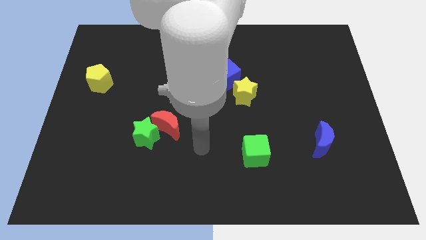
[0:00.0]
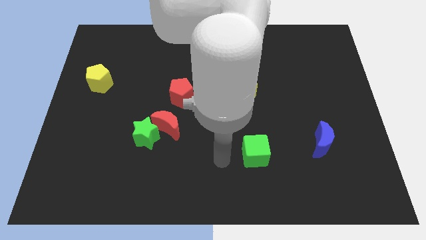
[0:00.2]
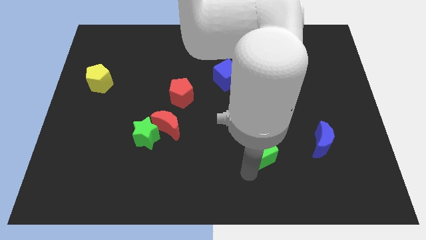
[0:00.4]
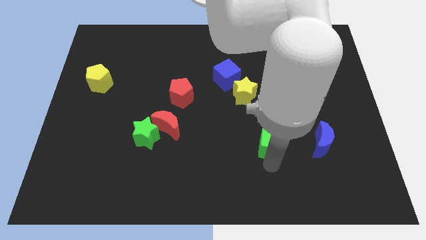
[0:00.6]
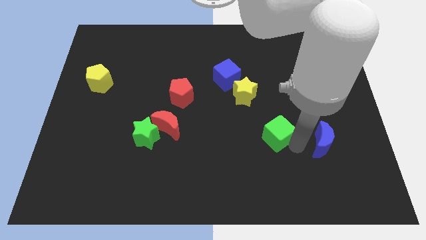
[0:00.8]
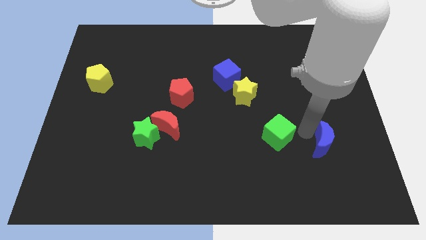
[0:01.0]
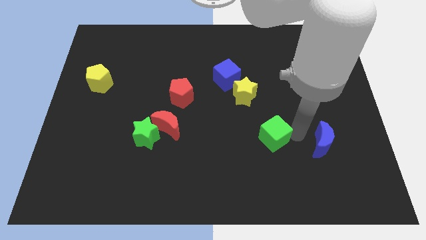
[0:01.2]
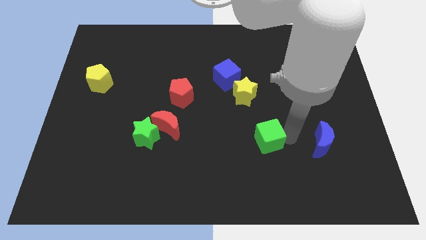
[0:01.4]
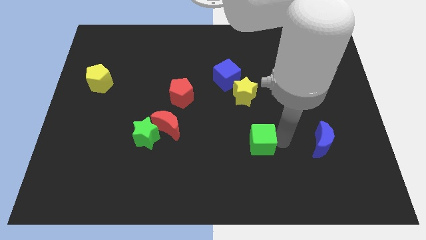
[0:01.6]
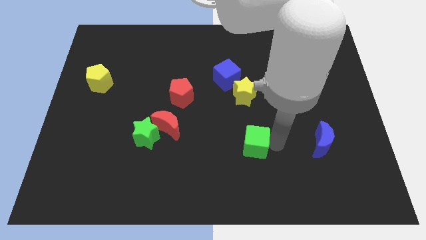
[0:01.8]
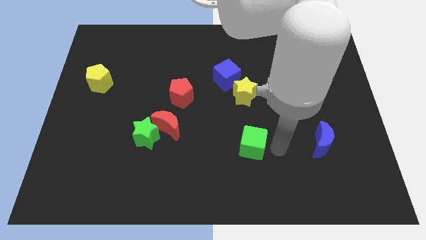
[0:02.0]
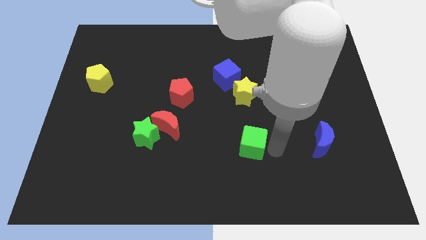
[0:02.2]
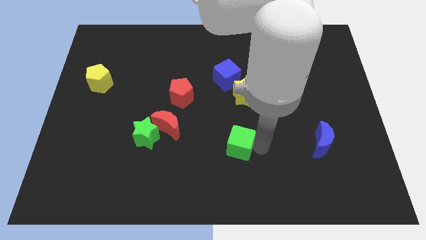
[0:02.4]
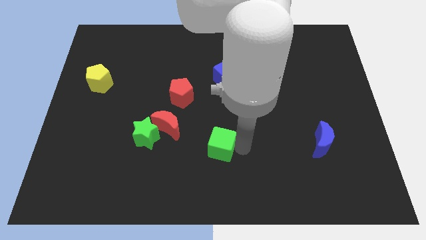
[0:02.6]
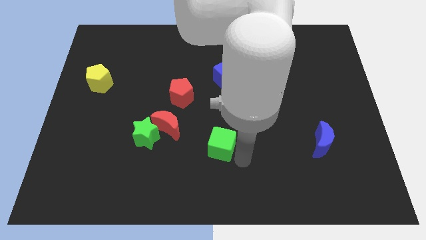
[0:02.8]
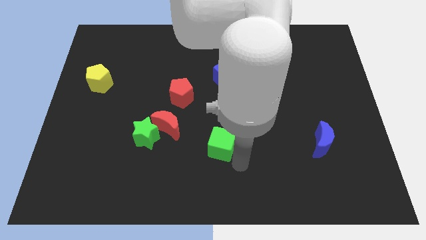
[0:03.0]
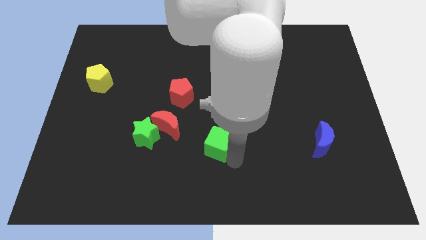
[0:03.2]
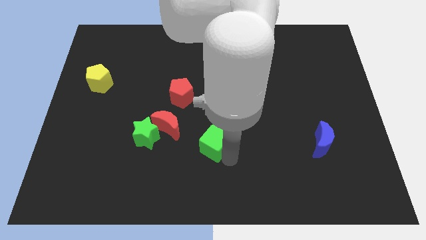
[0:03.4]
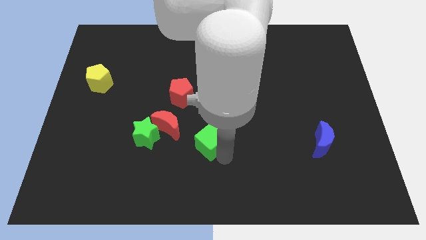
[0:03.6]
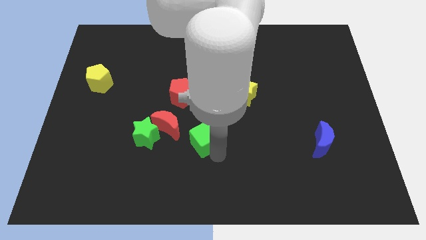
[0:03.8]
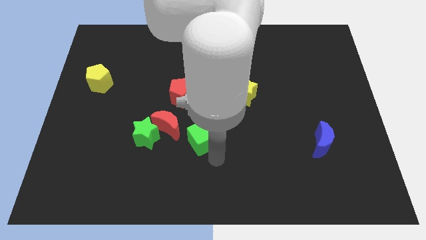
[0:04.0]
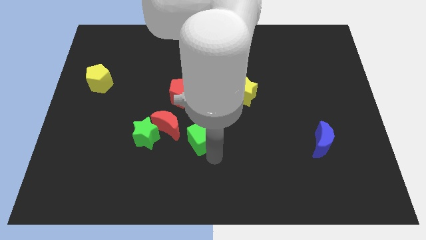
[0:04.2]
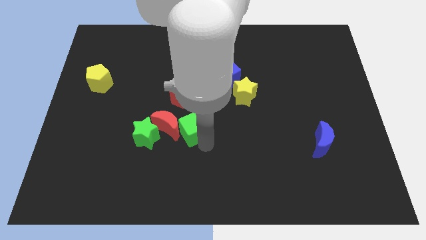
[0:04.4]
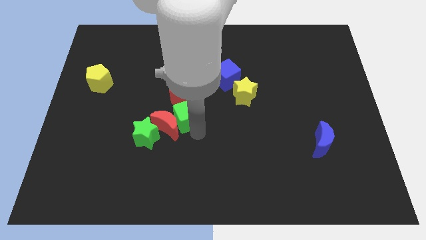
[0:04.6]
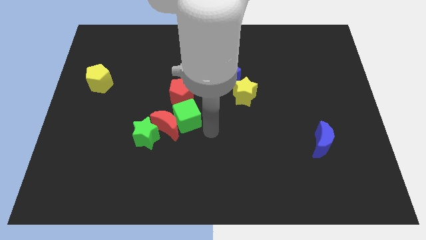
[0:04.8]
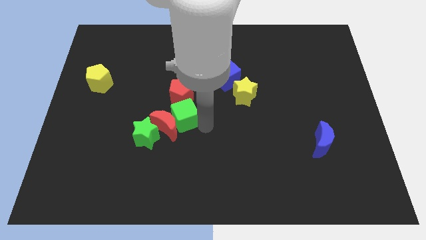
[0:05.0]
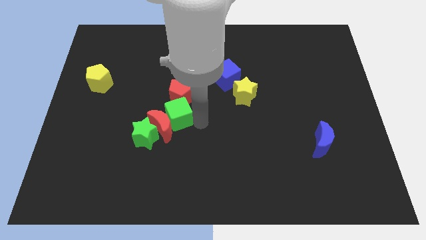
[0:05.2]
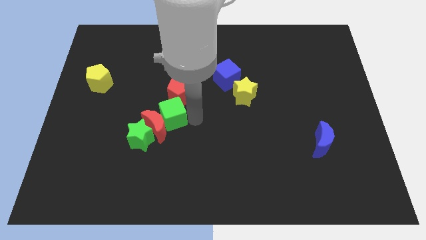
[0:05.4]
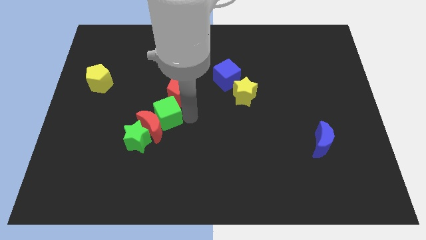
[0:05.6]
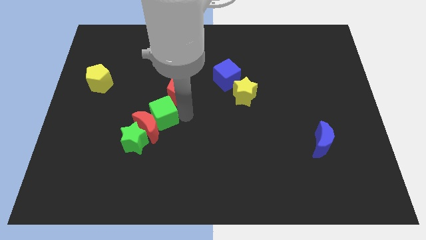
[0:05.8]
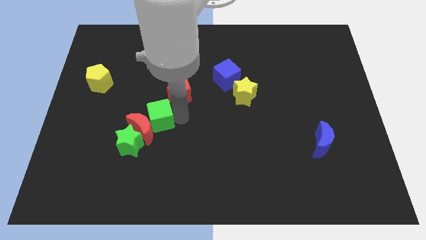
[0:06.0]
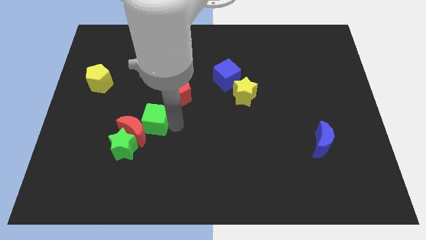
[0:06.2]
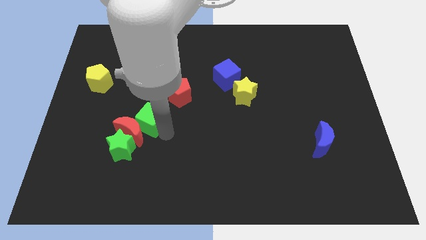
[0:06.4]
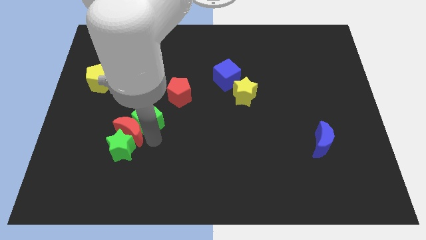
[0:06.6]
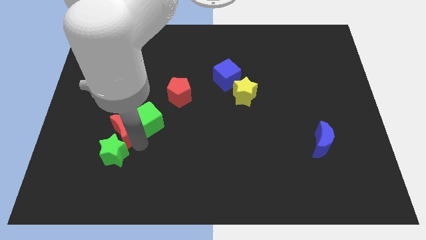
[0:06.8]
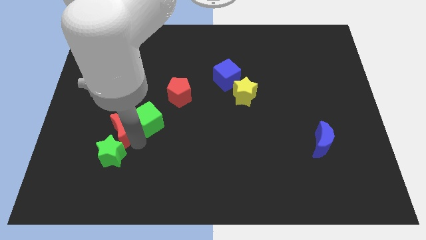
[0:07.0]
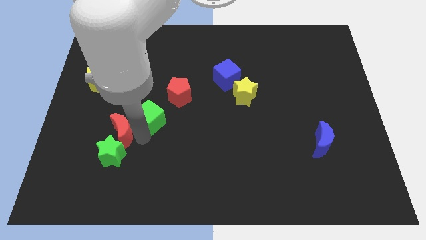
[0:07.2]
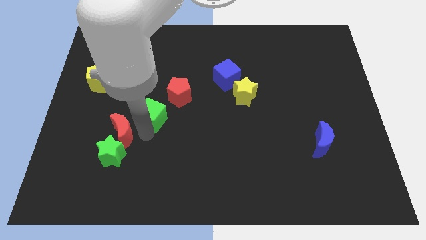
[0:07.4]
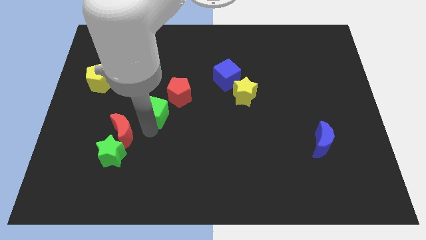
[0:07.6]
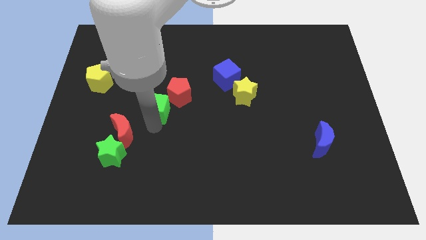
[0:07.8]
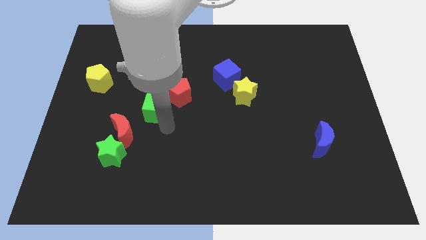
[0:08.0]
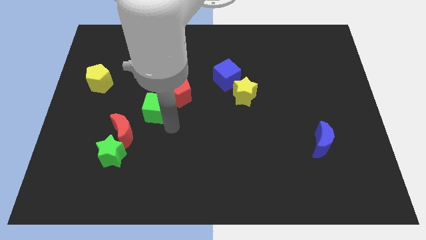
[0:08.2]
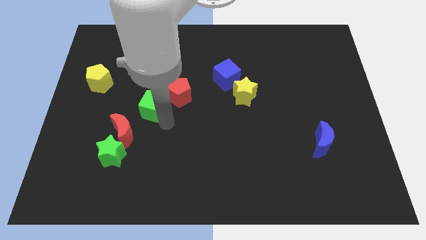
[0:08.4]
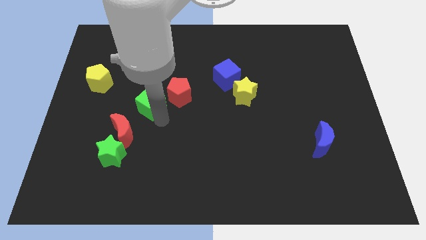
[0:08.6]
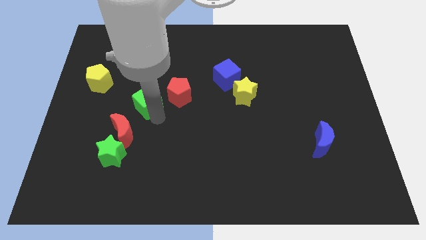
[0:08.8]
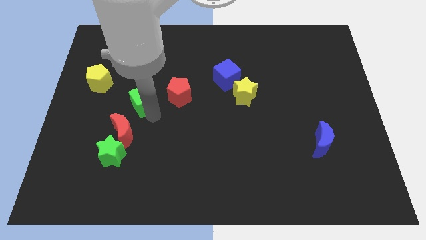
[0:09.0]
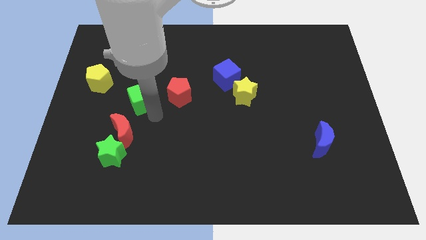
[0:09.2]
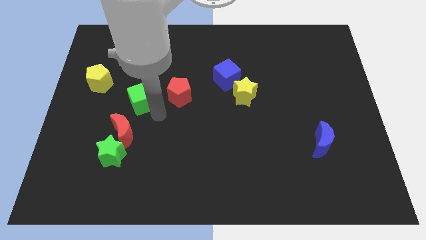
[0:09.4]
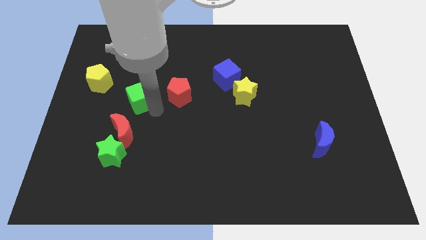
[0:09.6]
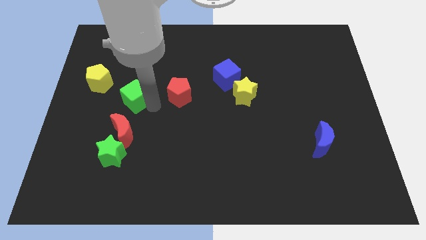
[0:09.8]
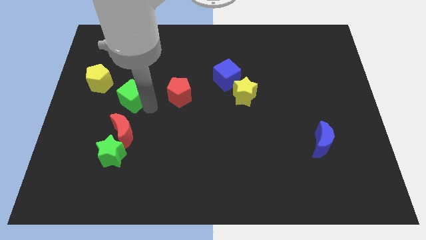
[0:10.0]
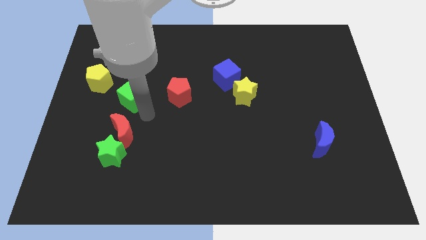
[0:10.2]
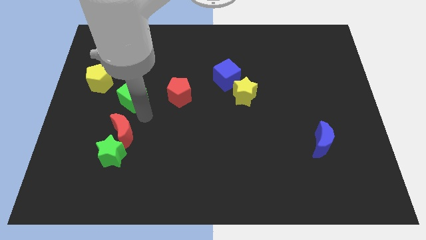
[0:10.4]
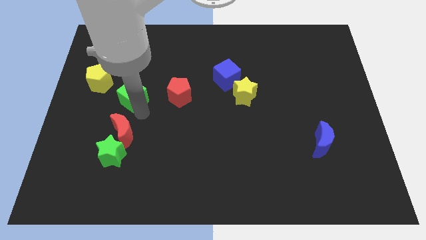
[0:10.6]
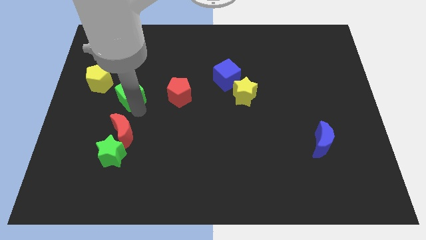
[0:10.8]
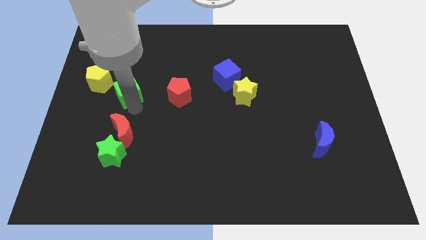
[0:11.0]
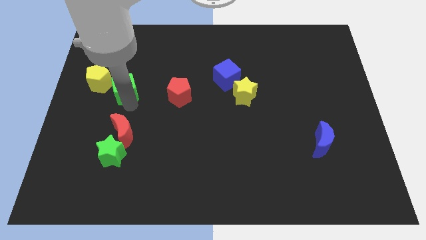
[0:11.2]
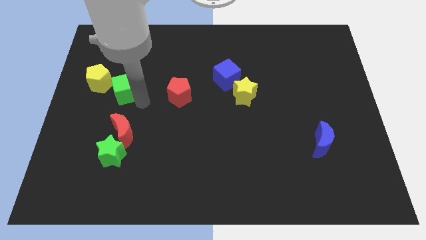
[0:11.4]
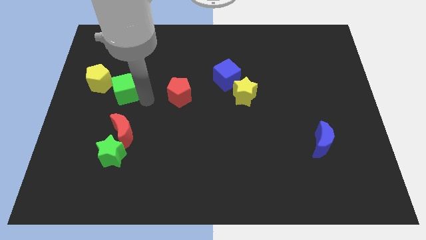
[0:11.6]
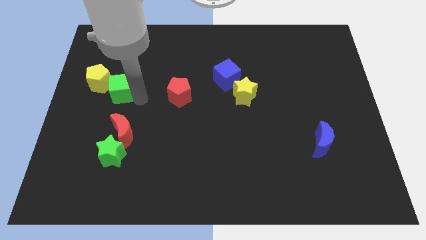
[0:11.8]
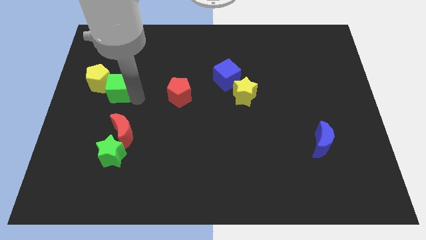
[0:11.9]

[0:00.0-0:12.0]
put the green cube to the yellow pentagon

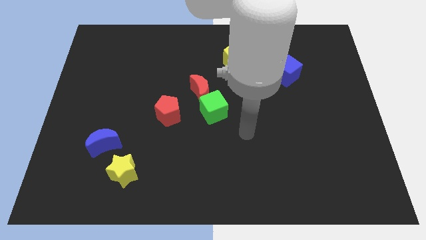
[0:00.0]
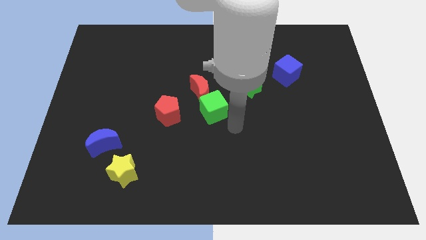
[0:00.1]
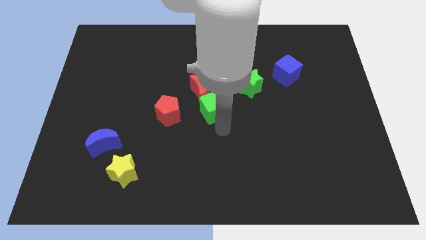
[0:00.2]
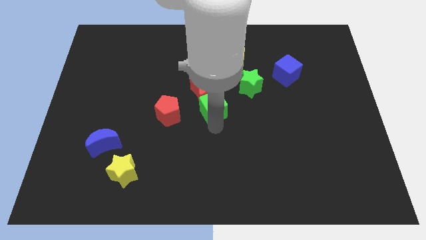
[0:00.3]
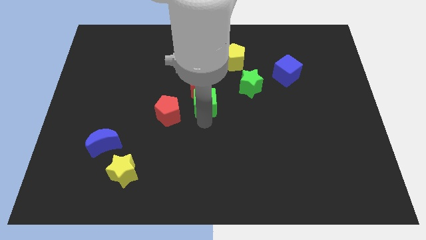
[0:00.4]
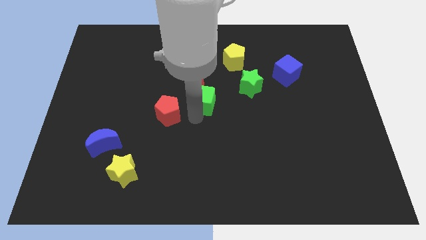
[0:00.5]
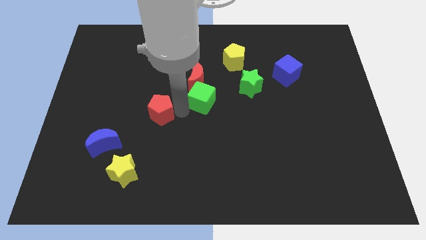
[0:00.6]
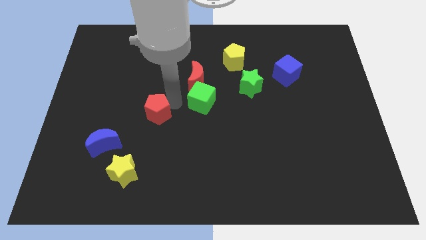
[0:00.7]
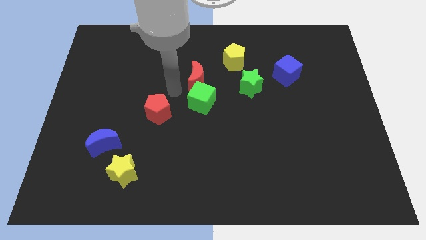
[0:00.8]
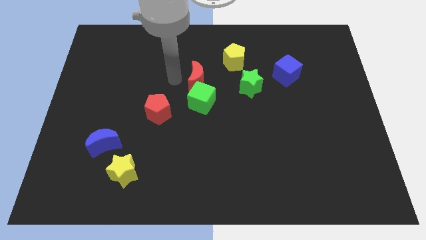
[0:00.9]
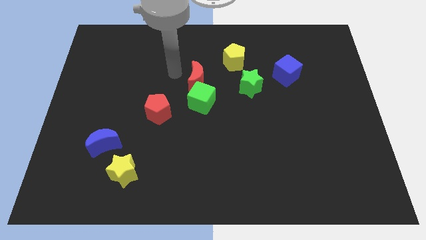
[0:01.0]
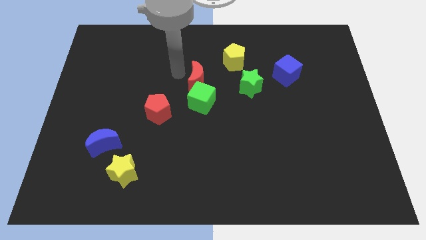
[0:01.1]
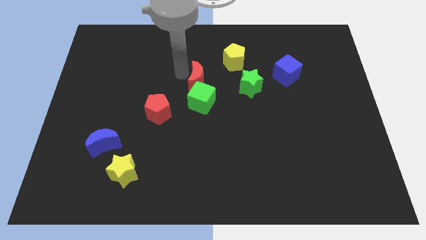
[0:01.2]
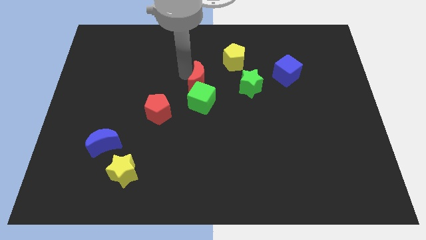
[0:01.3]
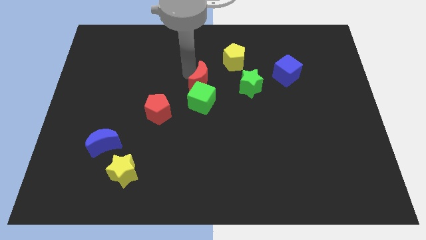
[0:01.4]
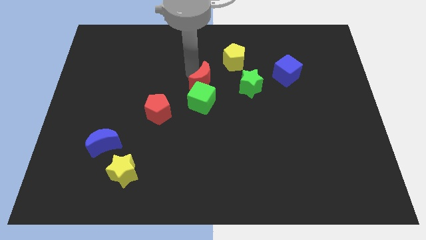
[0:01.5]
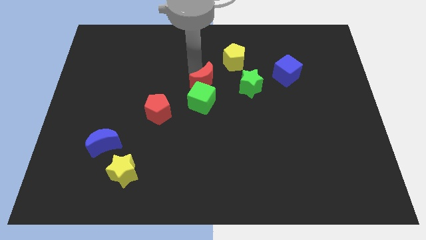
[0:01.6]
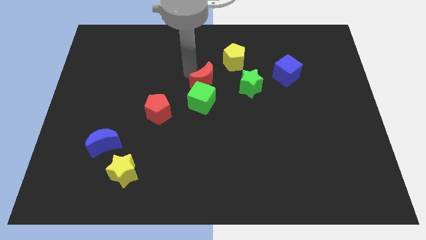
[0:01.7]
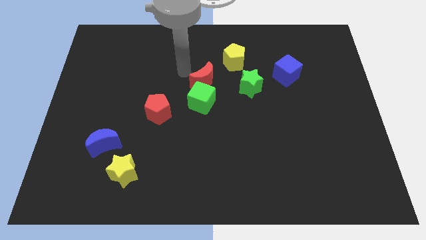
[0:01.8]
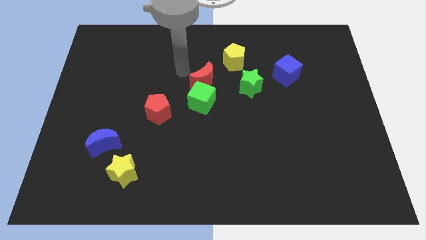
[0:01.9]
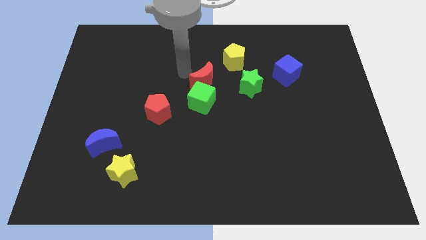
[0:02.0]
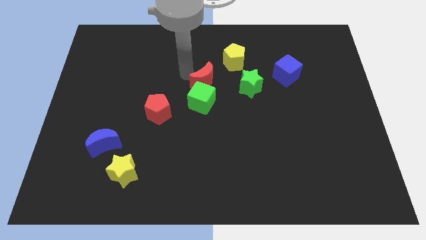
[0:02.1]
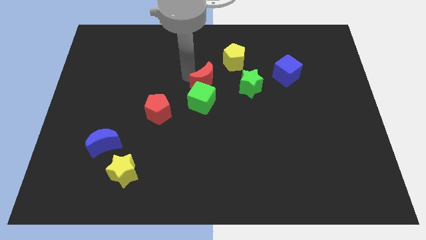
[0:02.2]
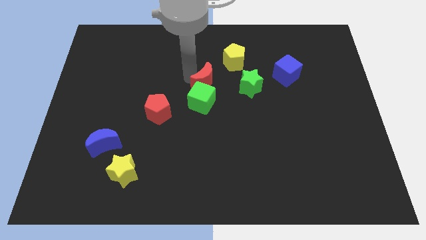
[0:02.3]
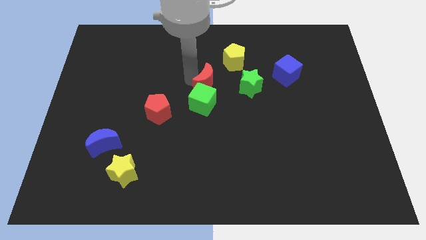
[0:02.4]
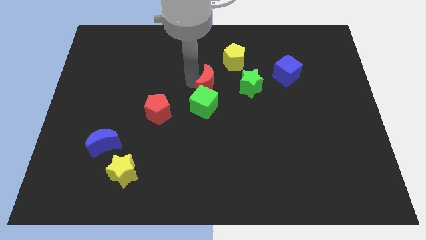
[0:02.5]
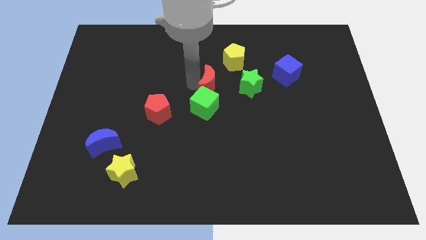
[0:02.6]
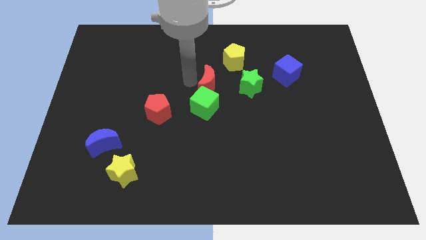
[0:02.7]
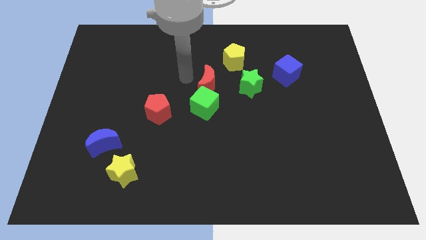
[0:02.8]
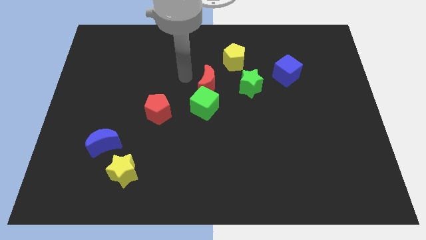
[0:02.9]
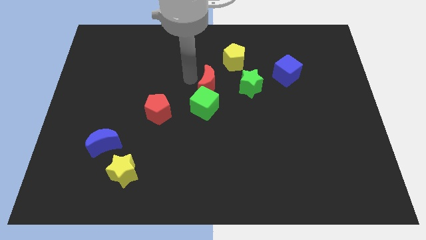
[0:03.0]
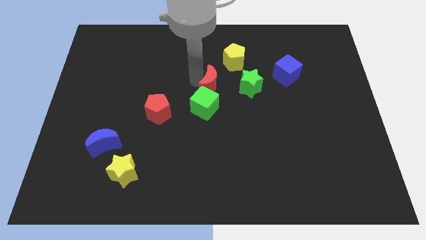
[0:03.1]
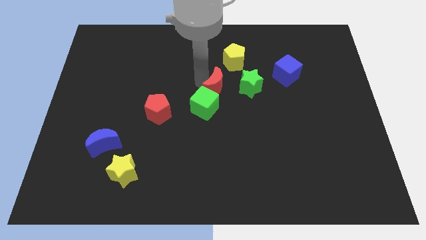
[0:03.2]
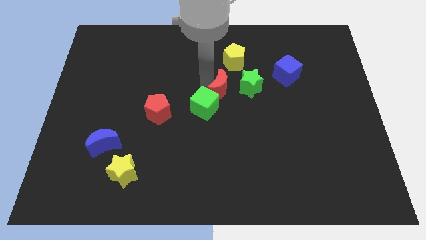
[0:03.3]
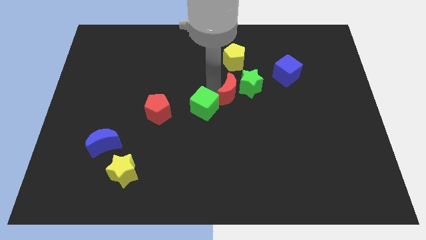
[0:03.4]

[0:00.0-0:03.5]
put the red moon close to the green star
